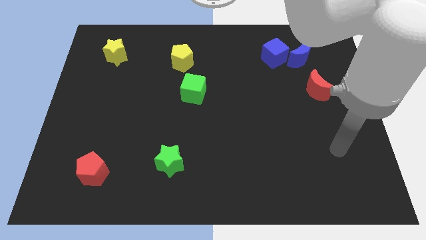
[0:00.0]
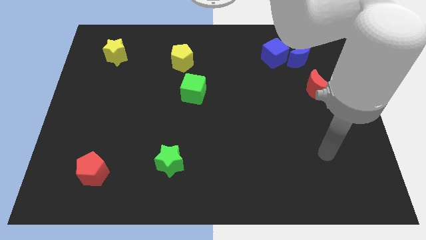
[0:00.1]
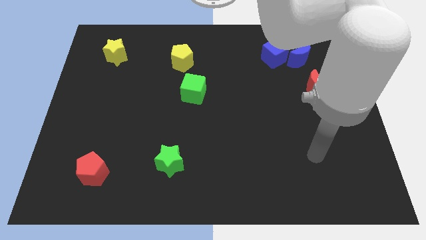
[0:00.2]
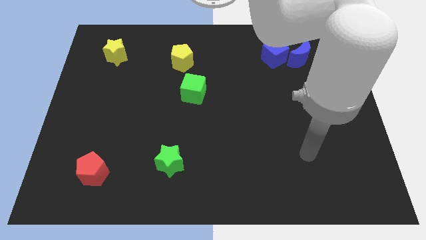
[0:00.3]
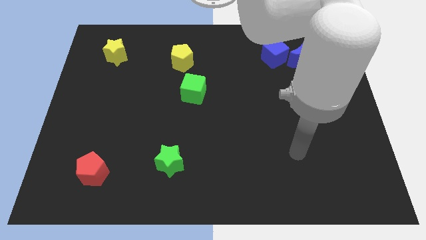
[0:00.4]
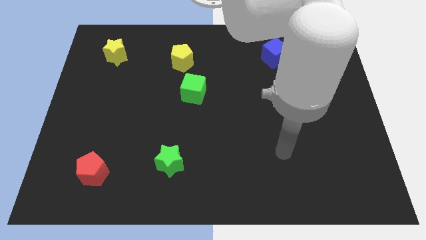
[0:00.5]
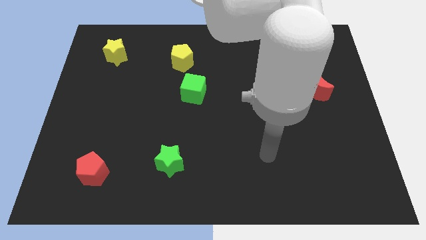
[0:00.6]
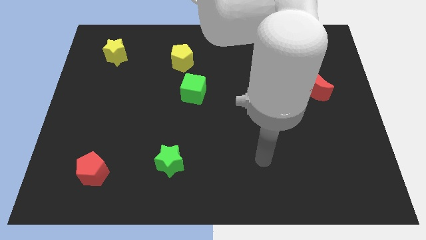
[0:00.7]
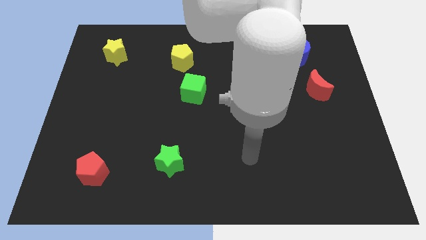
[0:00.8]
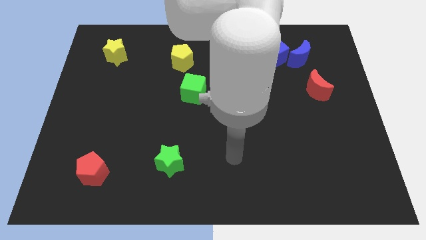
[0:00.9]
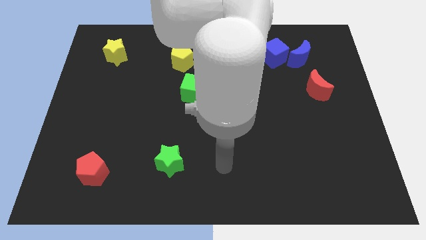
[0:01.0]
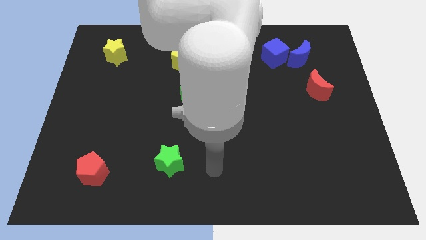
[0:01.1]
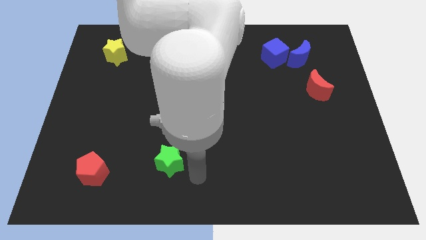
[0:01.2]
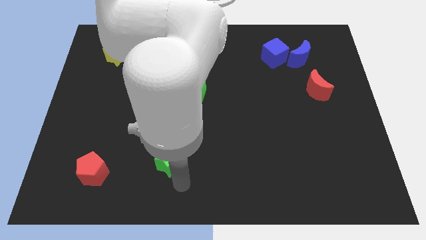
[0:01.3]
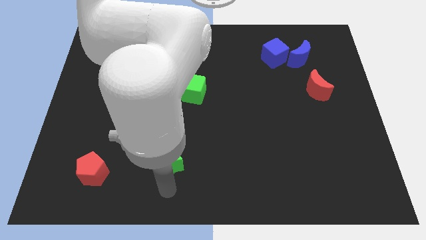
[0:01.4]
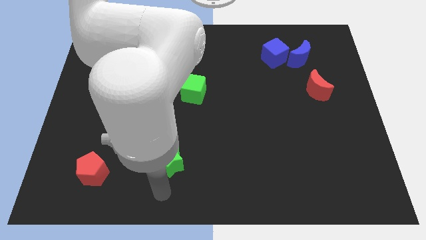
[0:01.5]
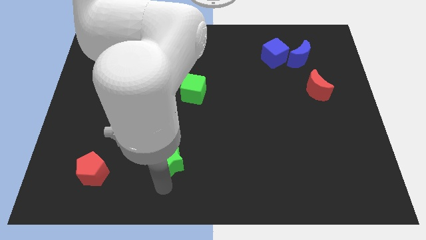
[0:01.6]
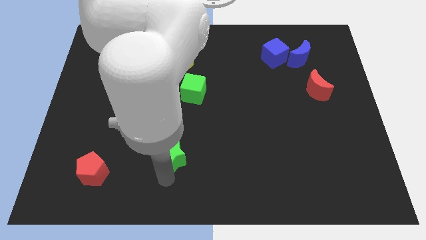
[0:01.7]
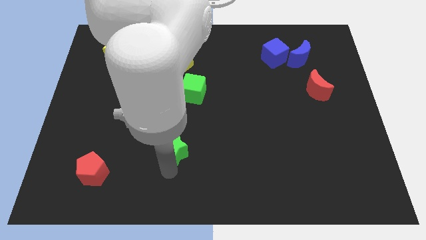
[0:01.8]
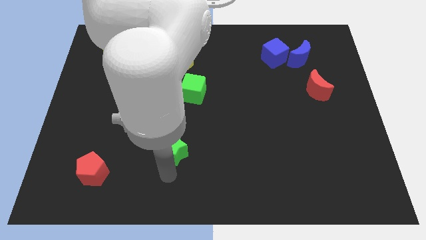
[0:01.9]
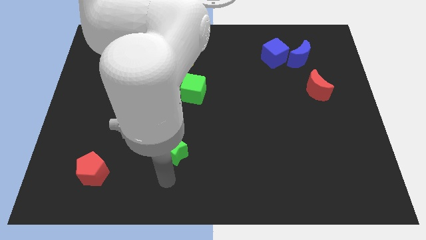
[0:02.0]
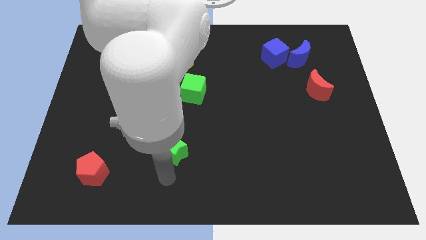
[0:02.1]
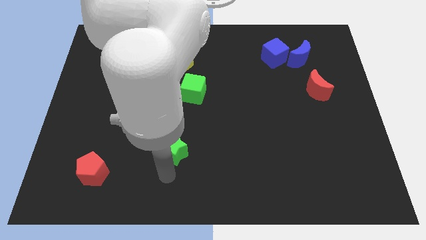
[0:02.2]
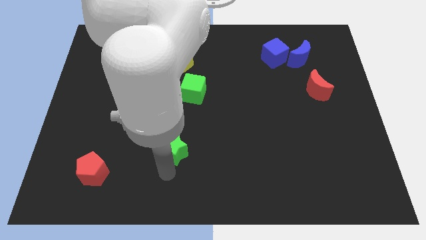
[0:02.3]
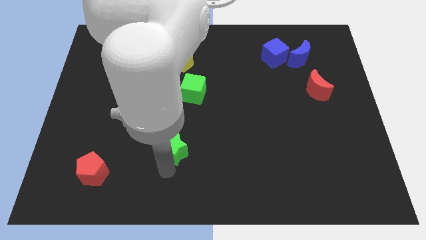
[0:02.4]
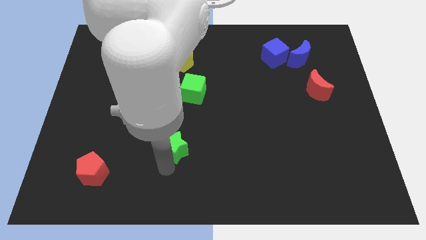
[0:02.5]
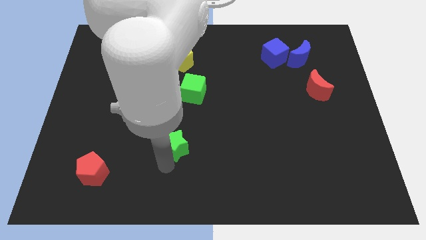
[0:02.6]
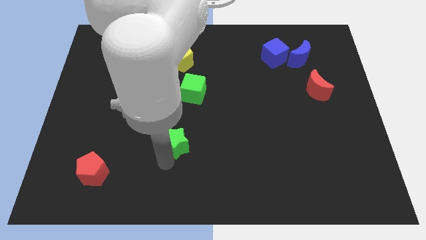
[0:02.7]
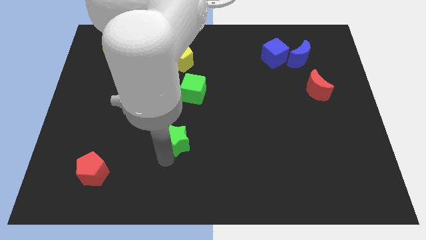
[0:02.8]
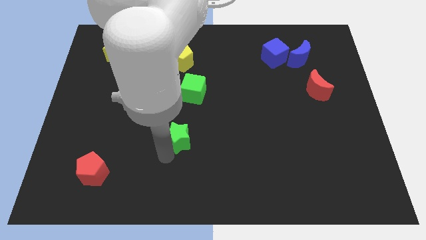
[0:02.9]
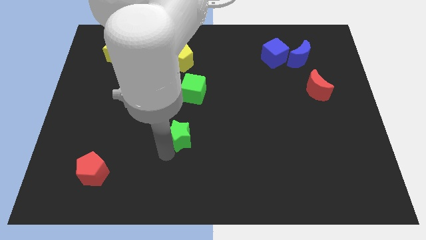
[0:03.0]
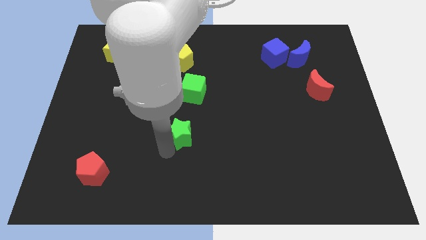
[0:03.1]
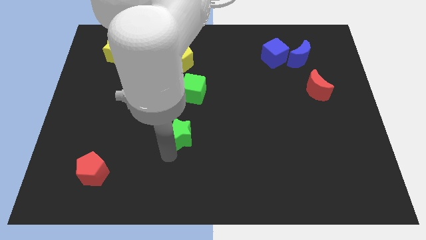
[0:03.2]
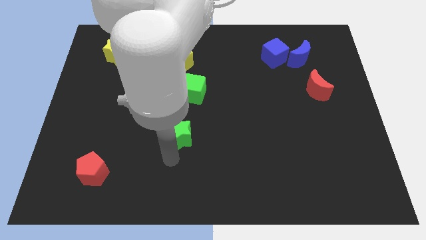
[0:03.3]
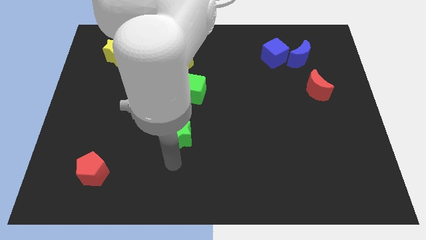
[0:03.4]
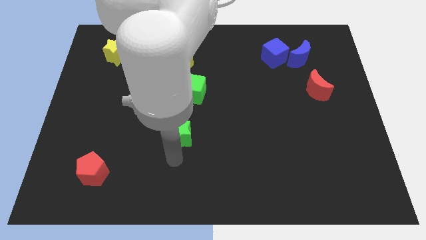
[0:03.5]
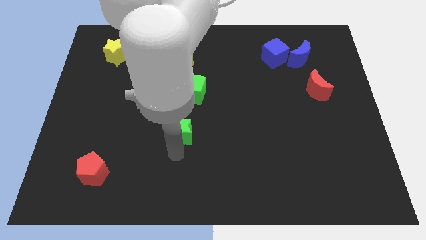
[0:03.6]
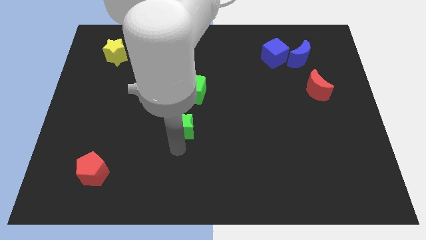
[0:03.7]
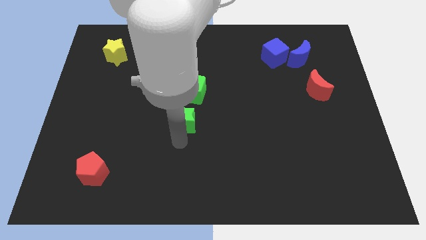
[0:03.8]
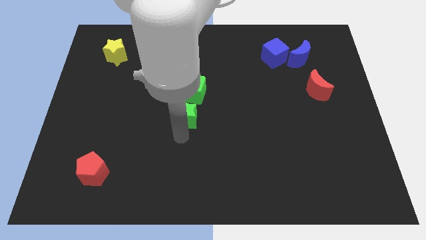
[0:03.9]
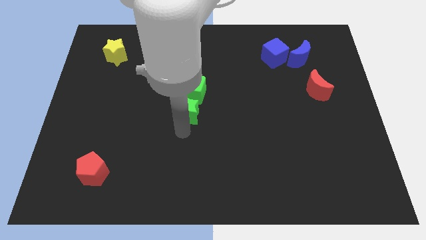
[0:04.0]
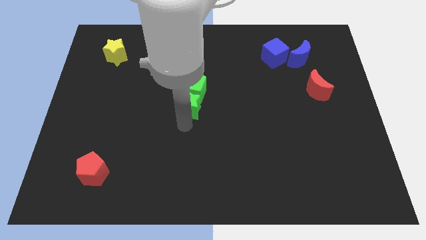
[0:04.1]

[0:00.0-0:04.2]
push the green star close to the green cube

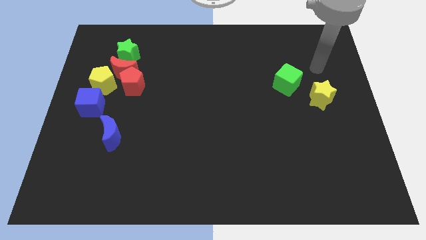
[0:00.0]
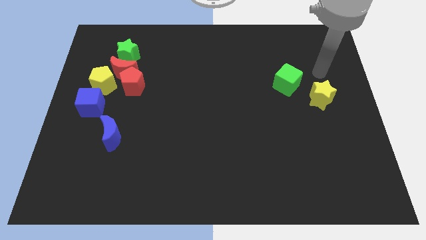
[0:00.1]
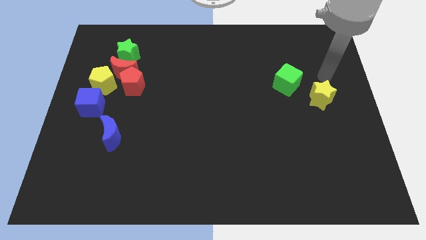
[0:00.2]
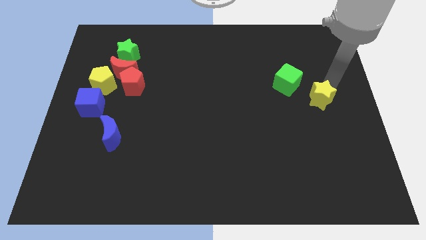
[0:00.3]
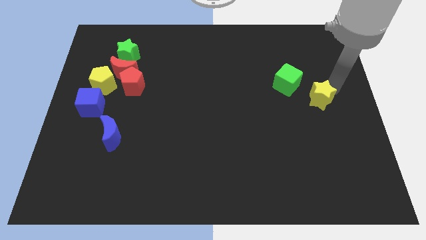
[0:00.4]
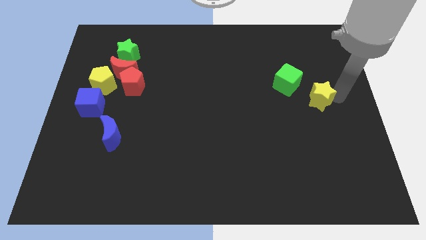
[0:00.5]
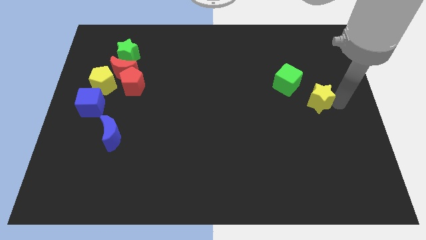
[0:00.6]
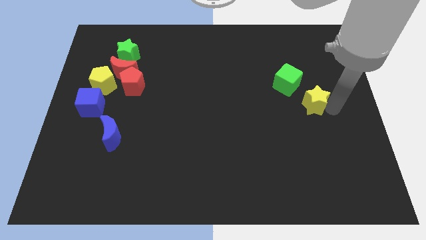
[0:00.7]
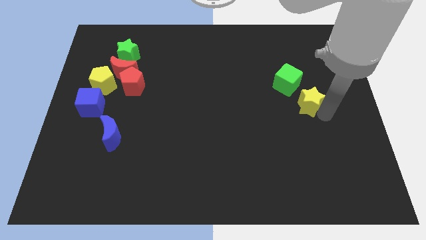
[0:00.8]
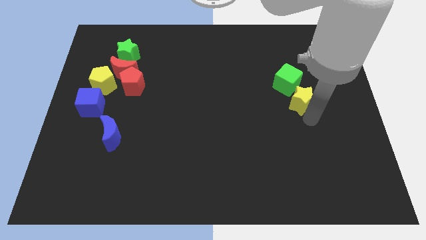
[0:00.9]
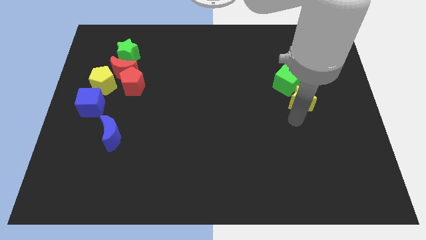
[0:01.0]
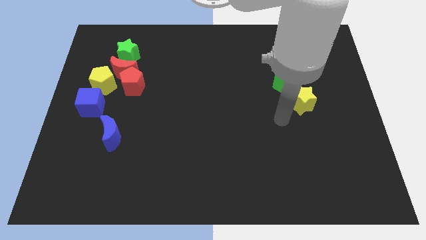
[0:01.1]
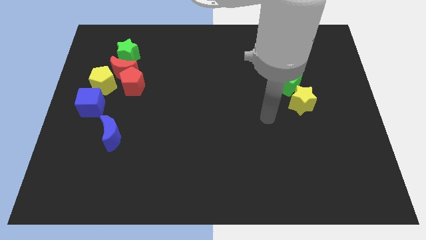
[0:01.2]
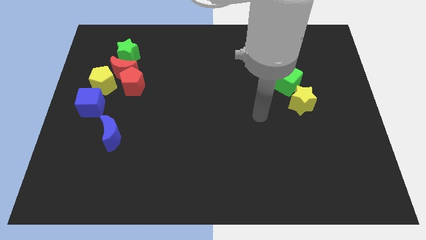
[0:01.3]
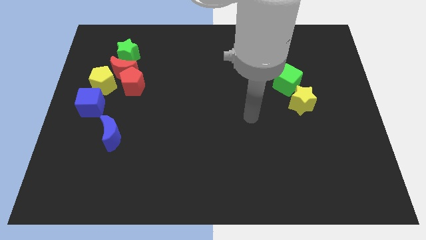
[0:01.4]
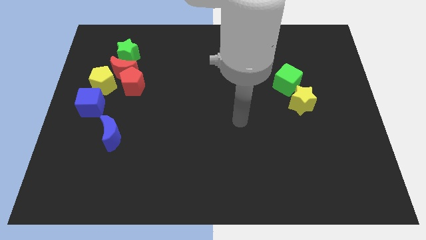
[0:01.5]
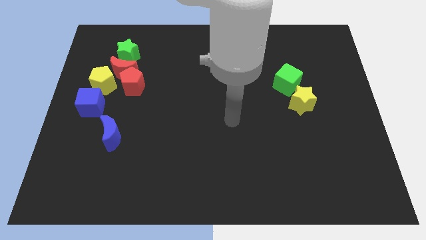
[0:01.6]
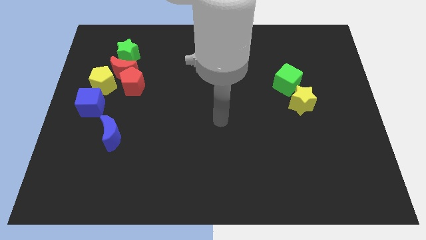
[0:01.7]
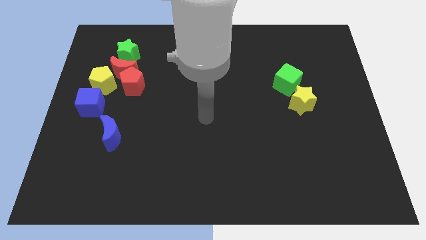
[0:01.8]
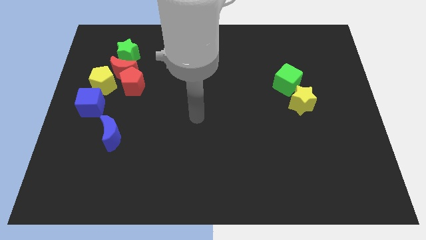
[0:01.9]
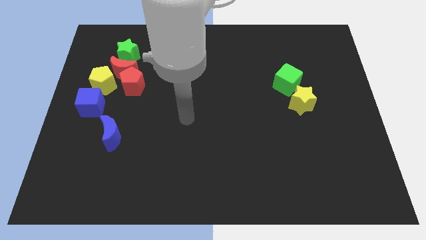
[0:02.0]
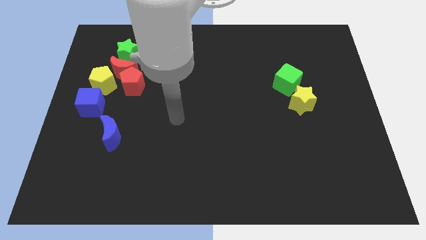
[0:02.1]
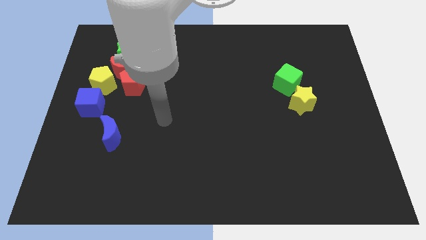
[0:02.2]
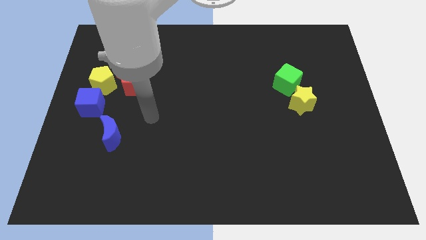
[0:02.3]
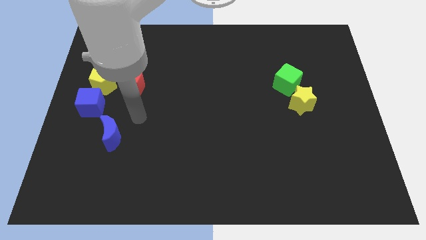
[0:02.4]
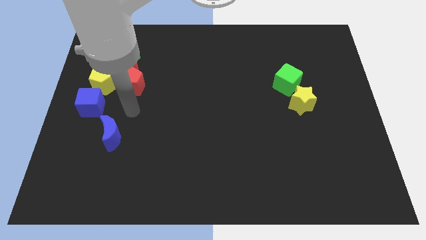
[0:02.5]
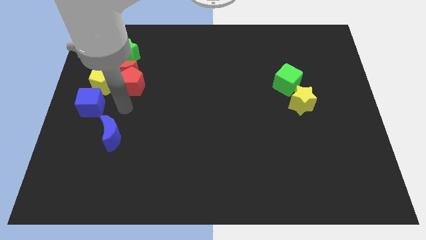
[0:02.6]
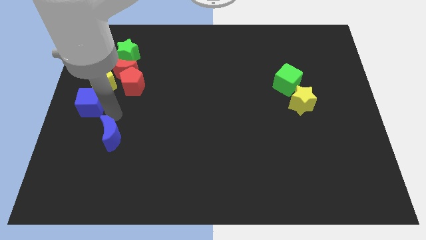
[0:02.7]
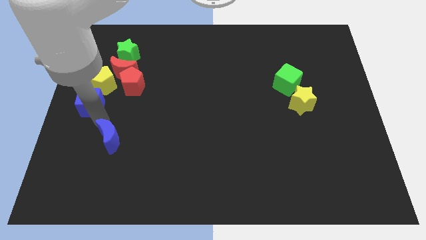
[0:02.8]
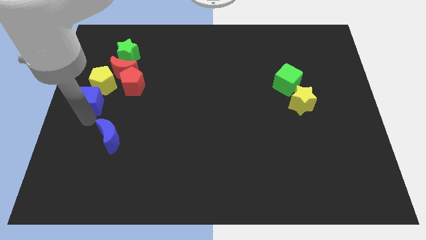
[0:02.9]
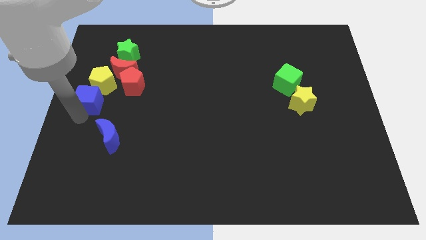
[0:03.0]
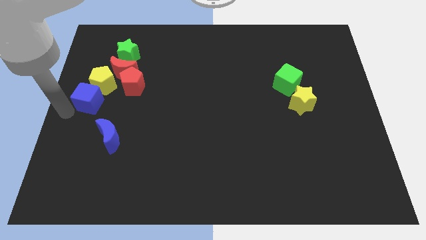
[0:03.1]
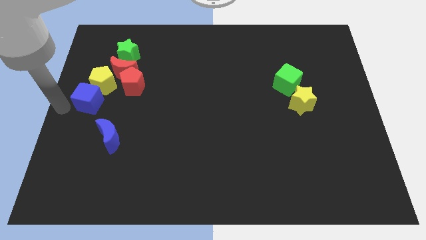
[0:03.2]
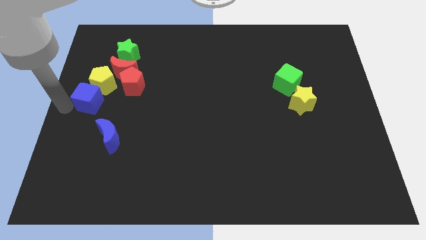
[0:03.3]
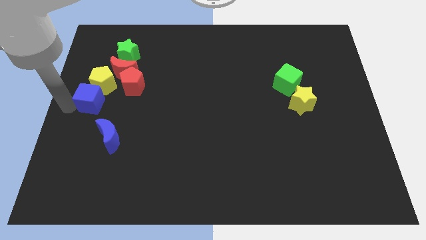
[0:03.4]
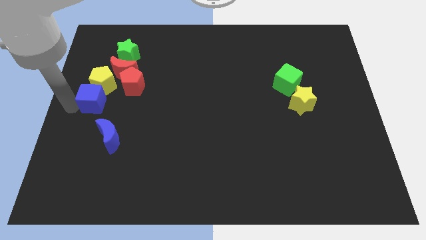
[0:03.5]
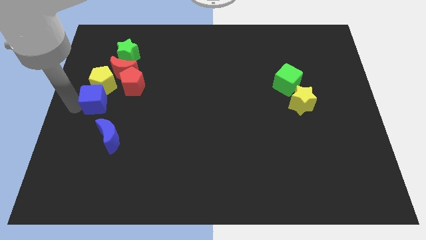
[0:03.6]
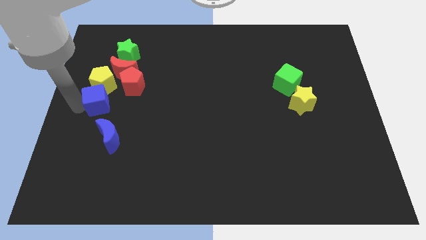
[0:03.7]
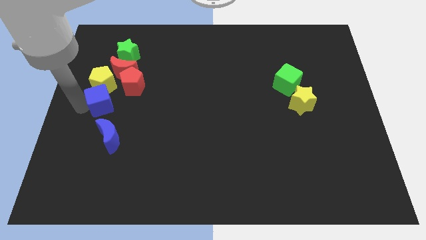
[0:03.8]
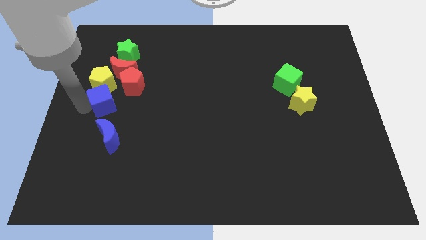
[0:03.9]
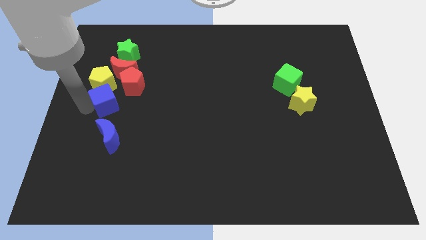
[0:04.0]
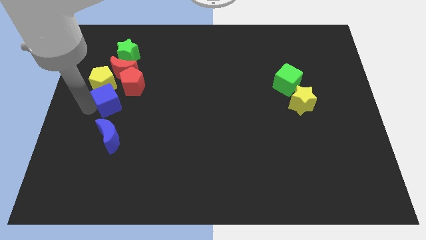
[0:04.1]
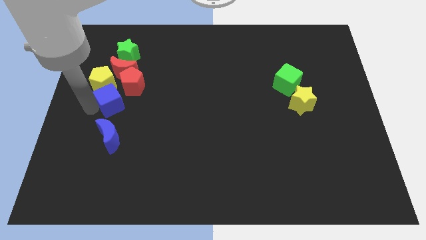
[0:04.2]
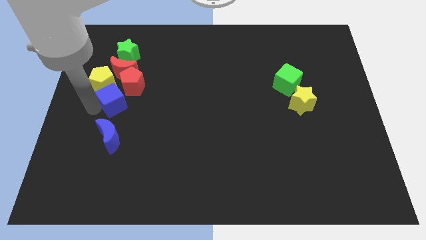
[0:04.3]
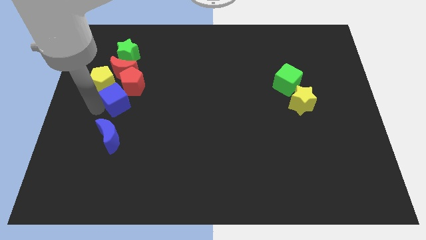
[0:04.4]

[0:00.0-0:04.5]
slide the blue cube towards the red pentagon
